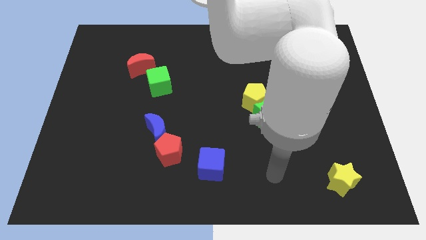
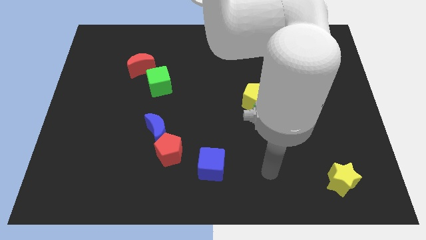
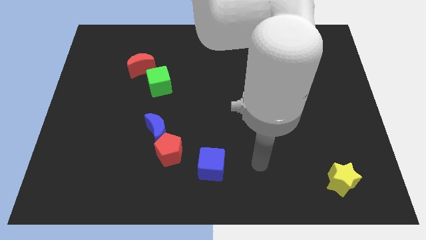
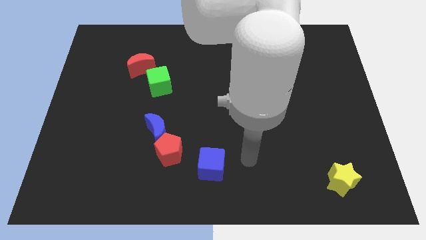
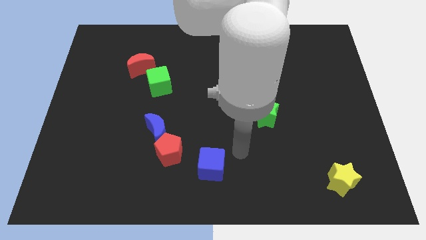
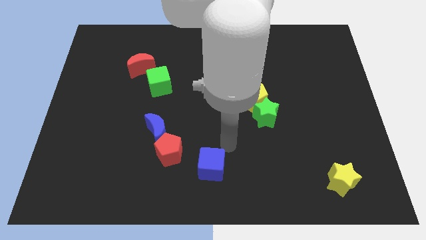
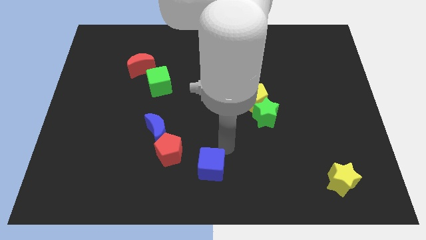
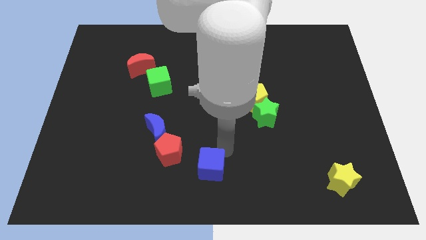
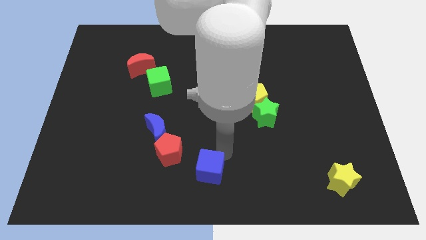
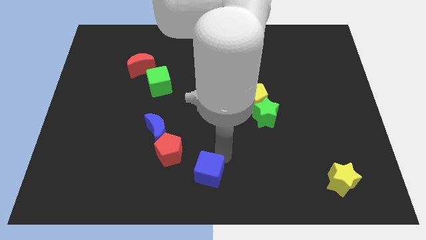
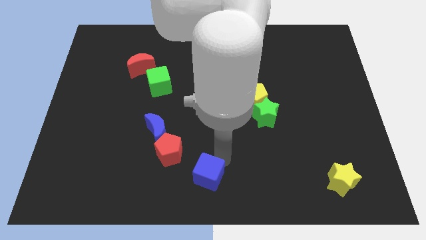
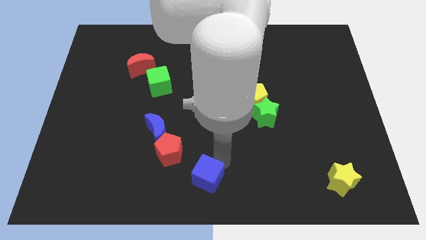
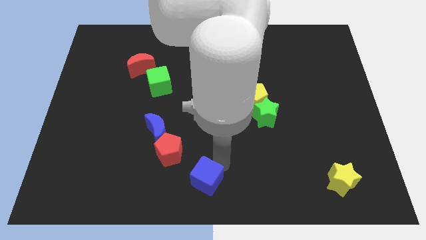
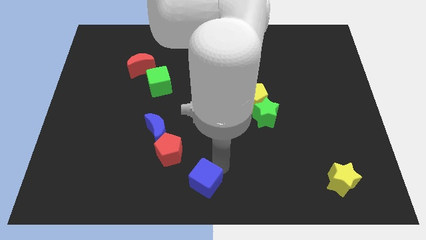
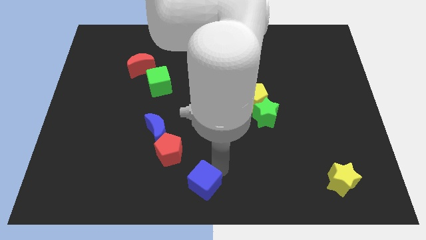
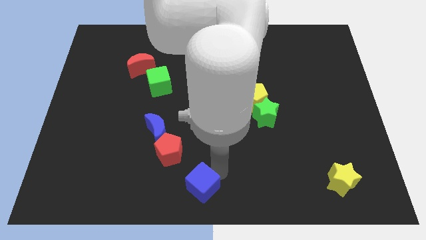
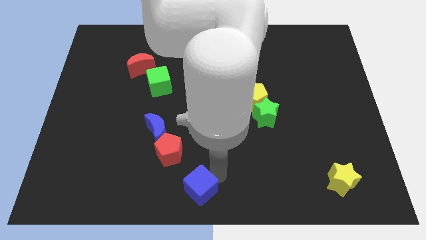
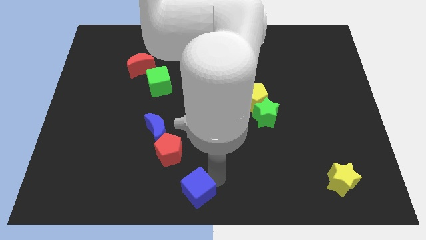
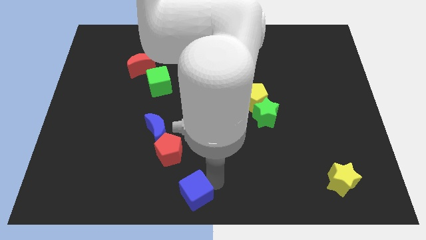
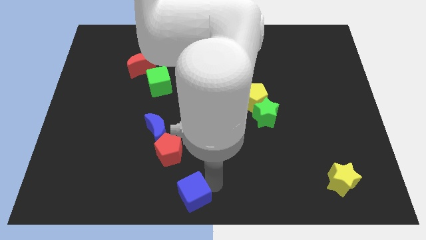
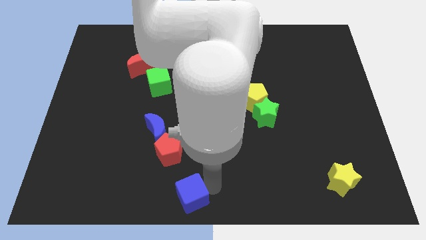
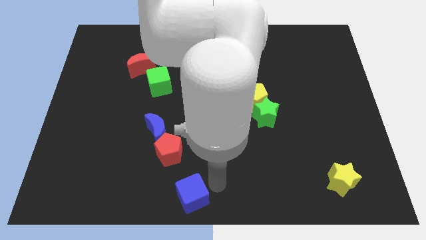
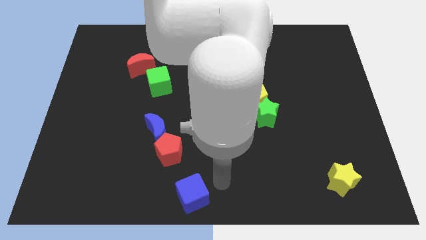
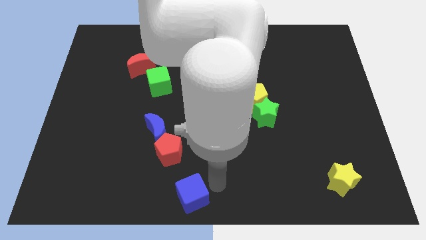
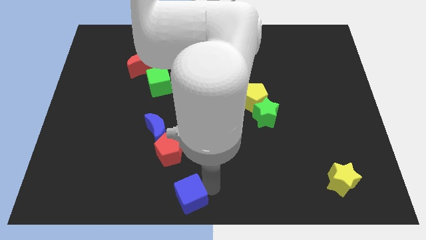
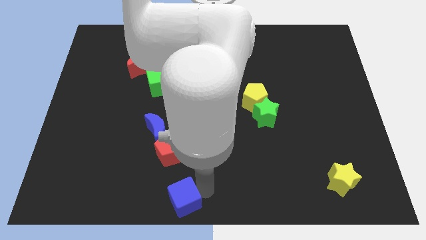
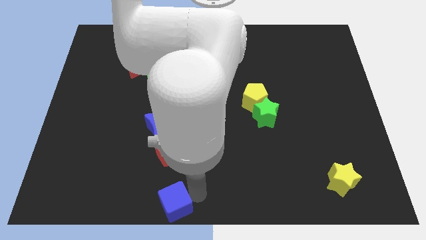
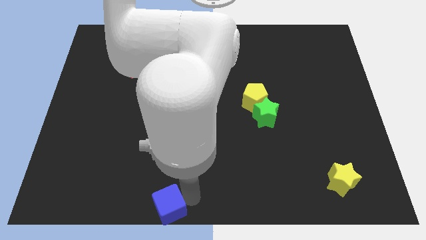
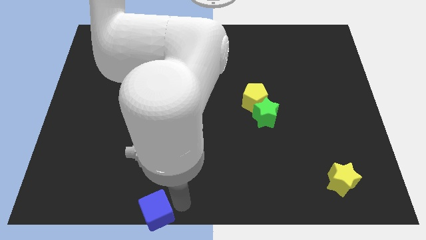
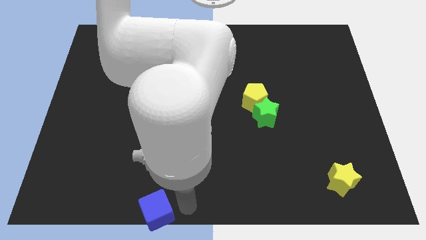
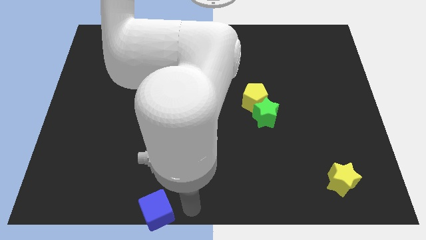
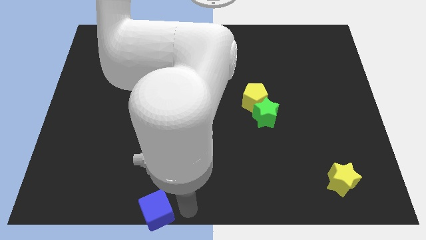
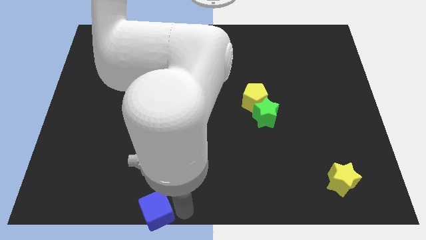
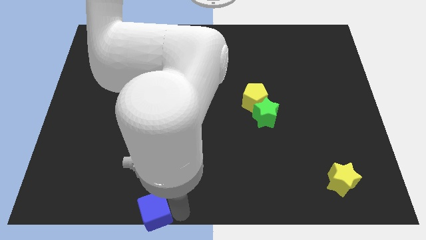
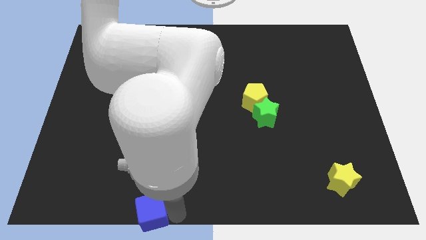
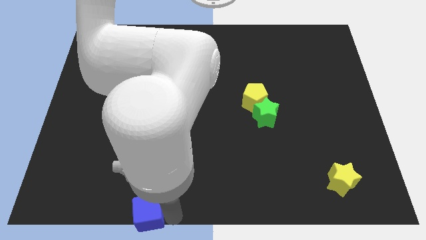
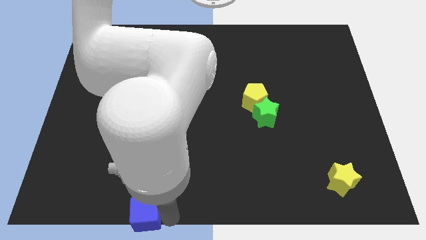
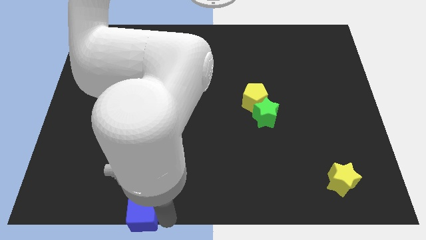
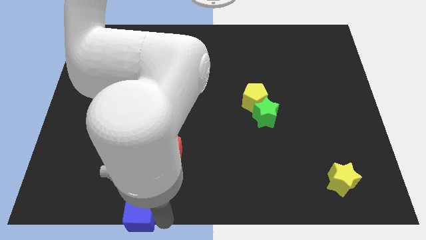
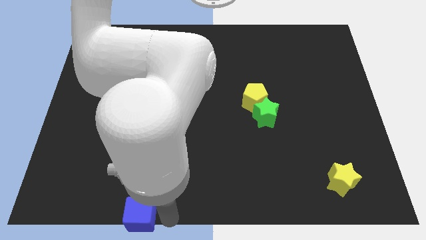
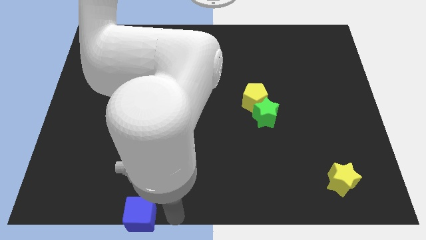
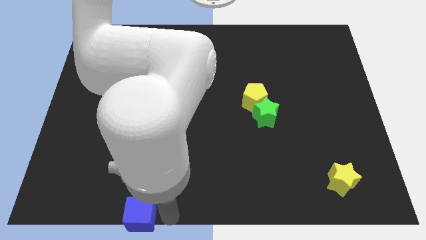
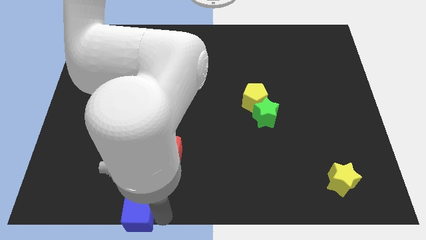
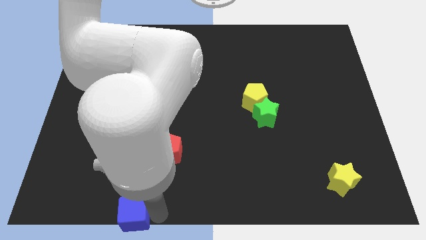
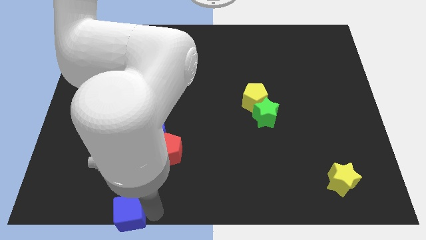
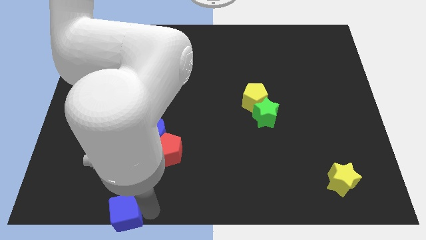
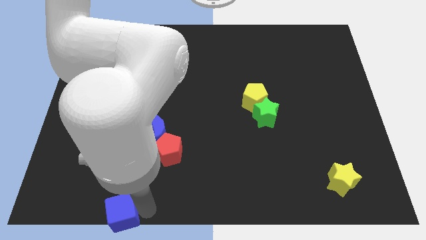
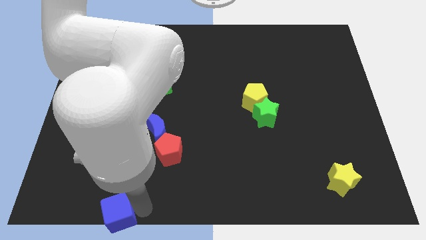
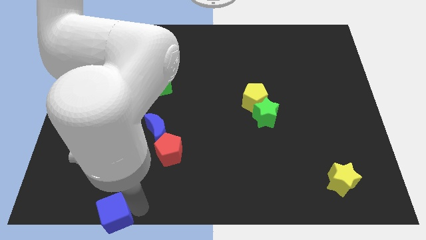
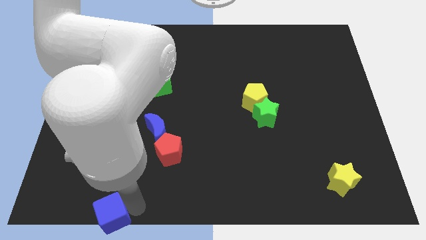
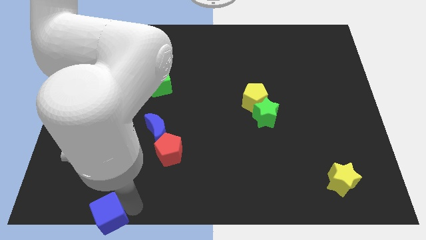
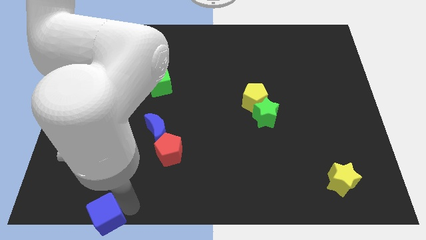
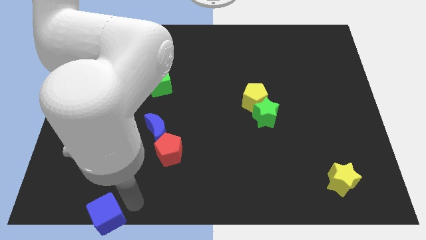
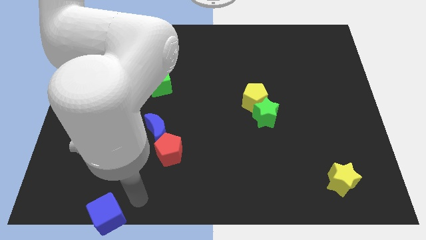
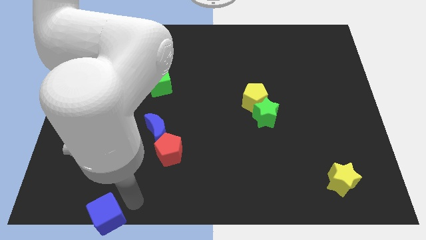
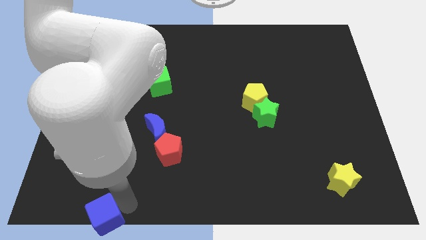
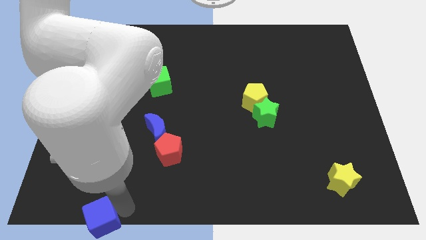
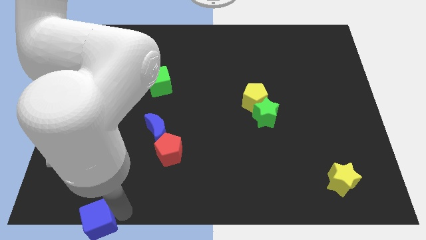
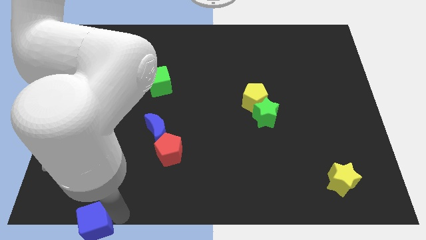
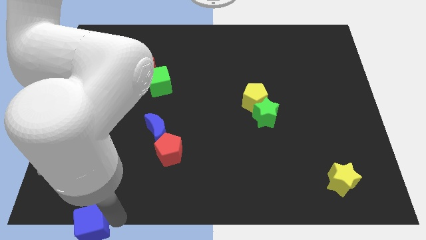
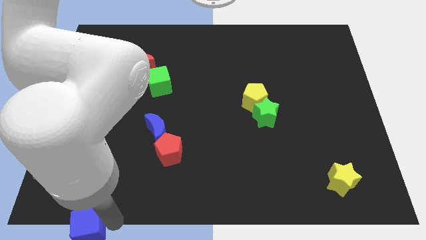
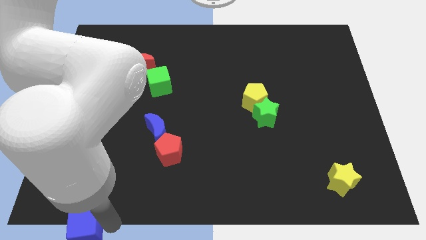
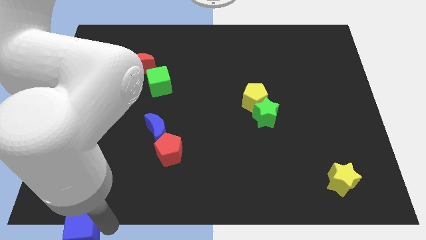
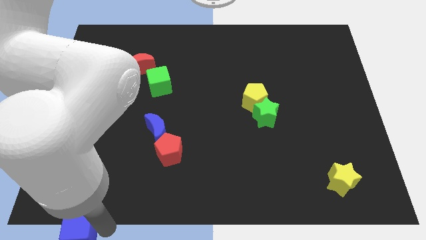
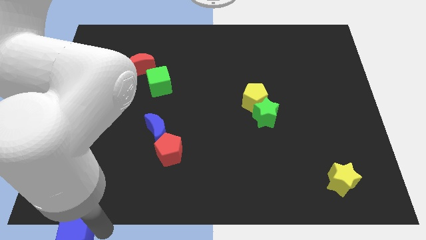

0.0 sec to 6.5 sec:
put the blue cube to the lower left corner

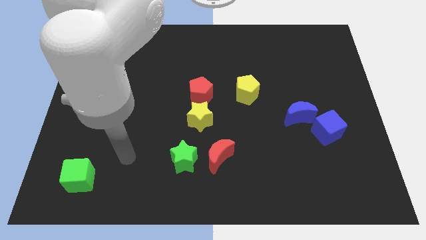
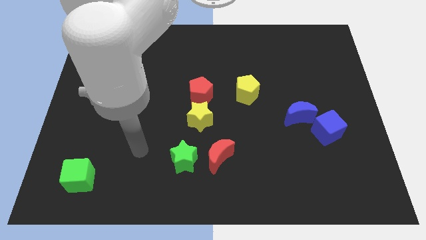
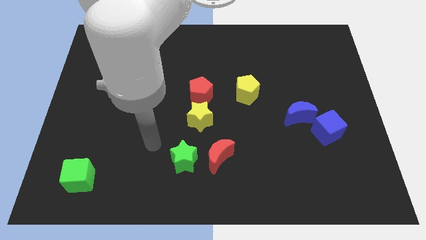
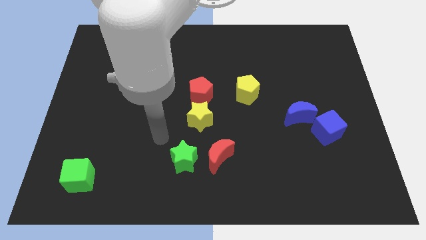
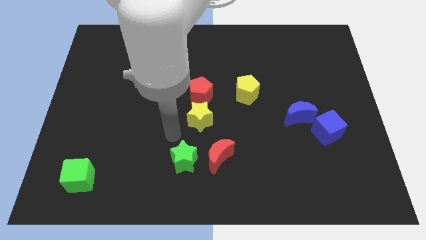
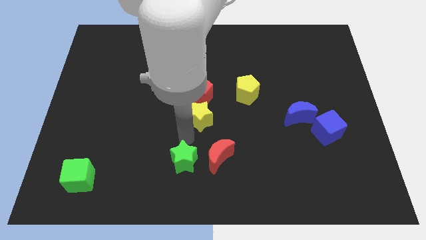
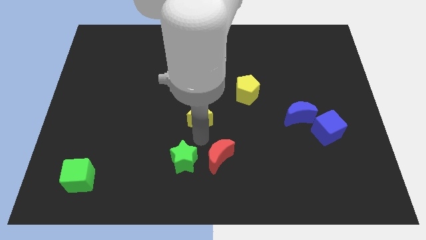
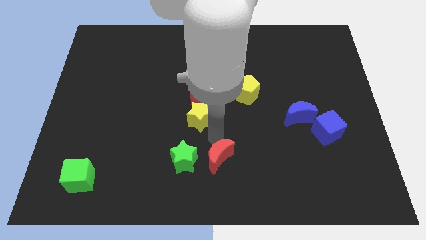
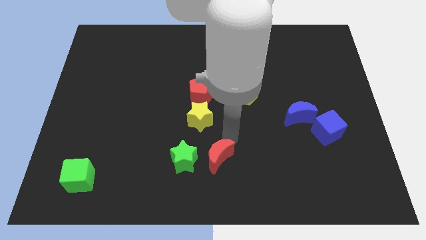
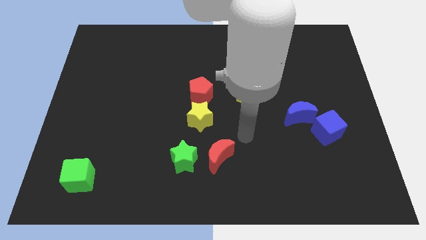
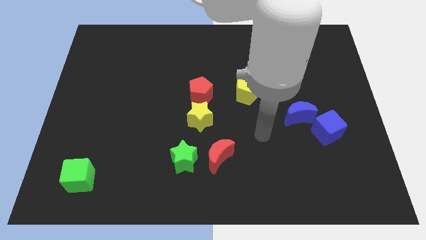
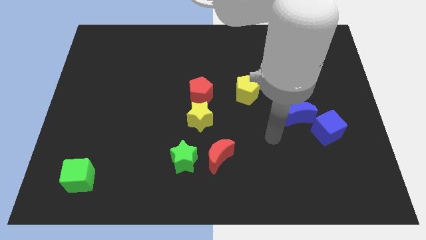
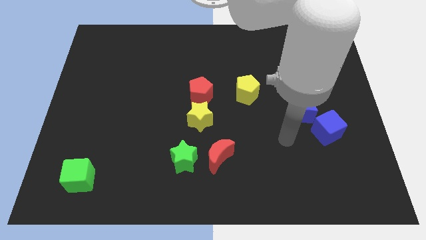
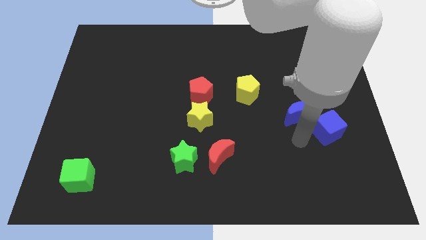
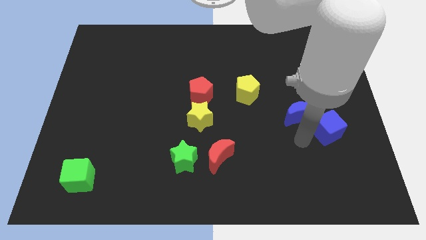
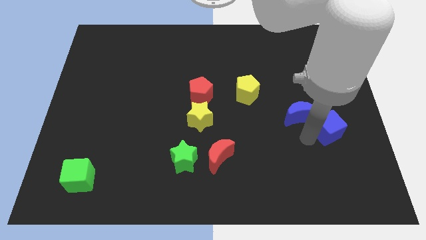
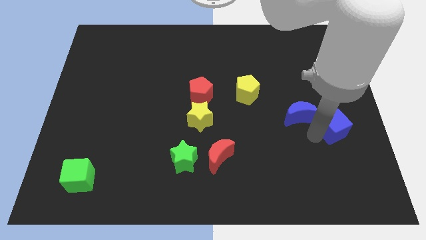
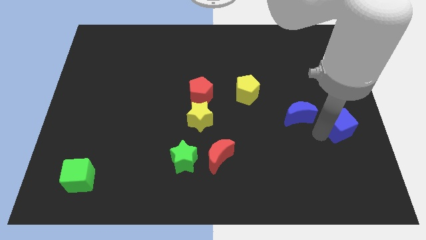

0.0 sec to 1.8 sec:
push the blue cube to the center right
